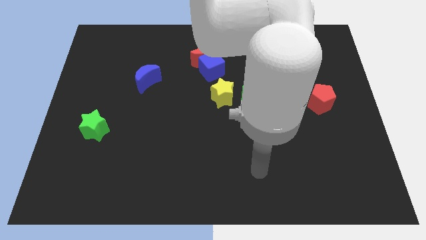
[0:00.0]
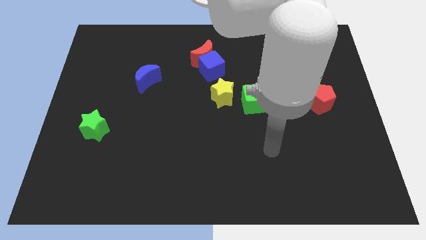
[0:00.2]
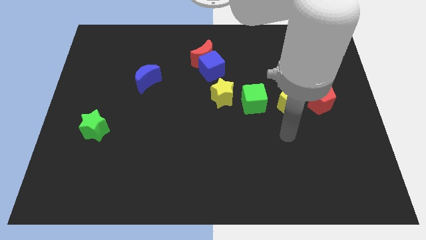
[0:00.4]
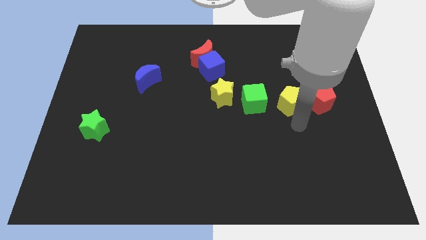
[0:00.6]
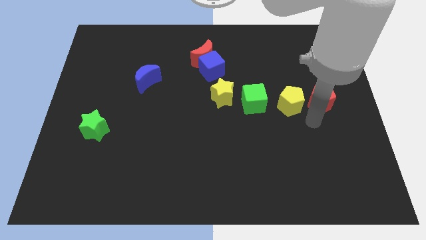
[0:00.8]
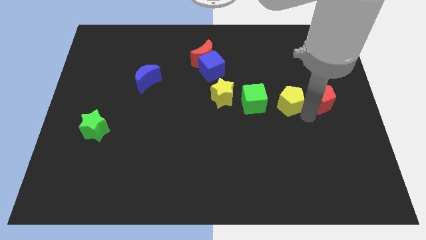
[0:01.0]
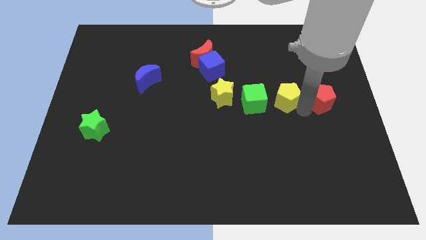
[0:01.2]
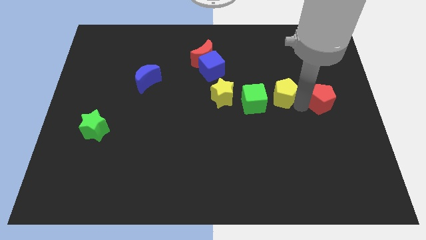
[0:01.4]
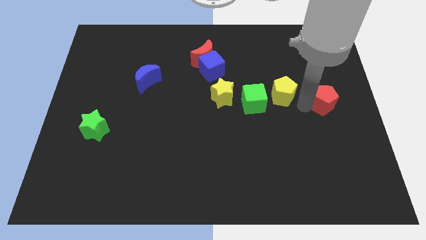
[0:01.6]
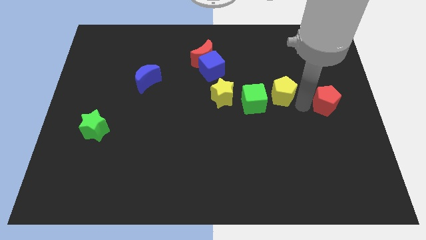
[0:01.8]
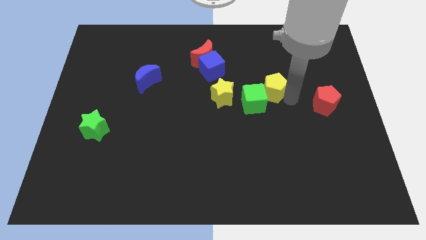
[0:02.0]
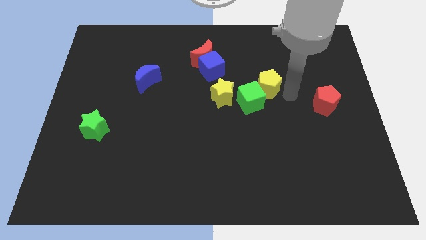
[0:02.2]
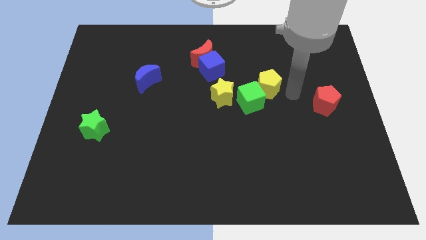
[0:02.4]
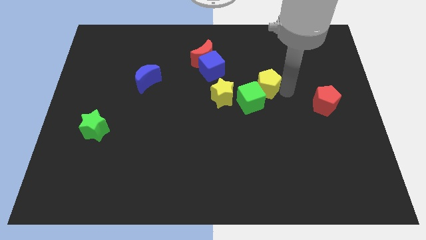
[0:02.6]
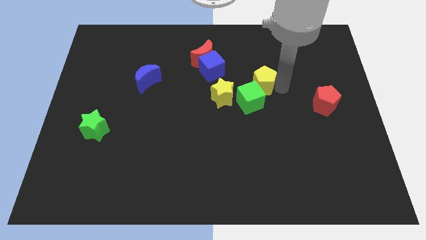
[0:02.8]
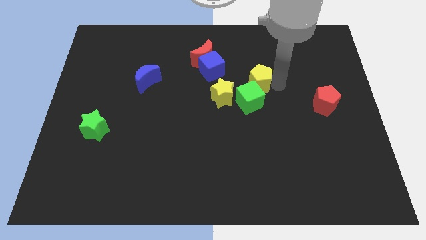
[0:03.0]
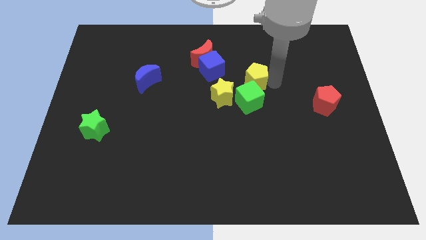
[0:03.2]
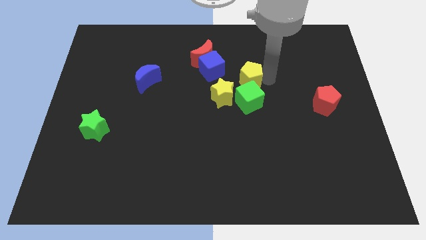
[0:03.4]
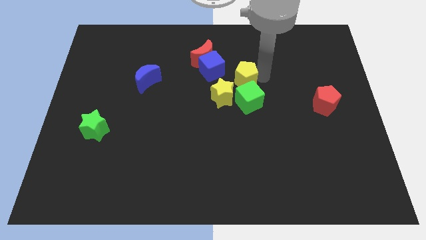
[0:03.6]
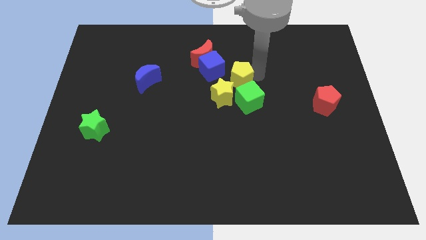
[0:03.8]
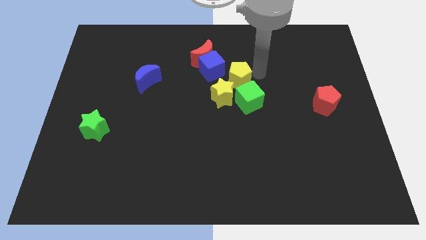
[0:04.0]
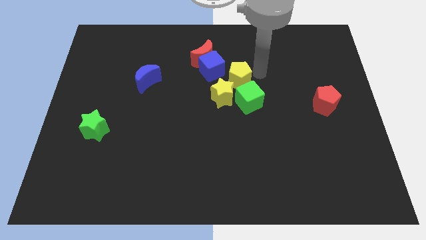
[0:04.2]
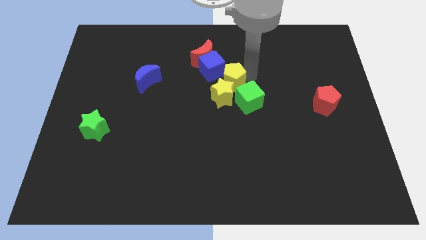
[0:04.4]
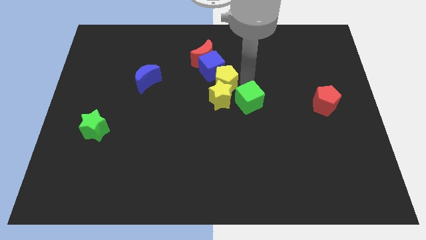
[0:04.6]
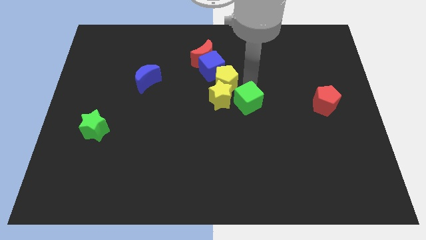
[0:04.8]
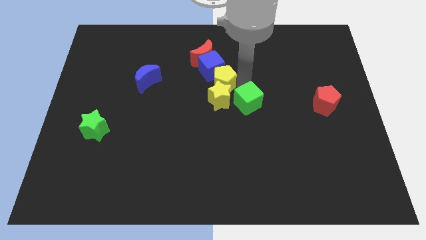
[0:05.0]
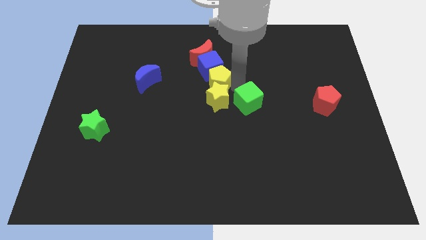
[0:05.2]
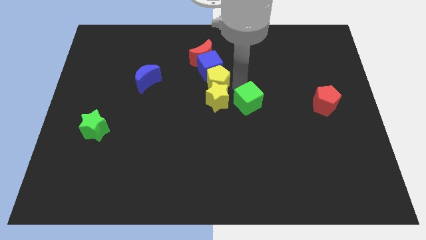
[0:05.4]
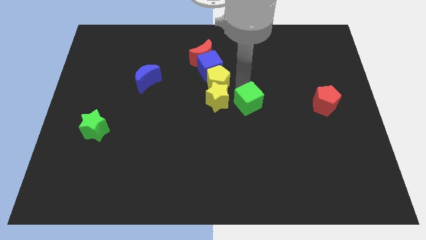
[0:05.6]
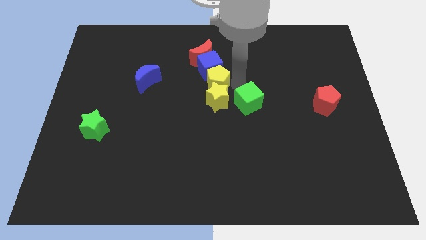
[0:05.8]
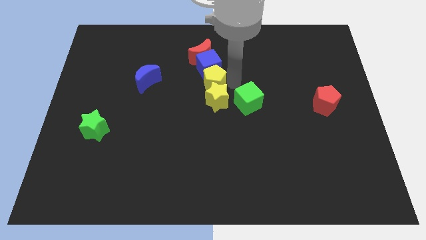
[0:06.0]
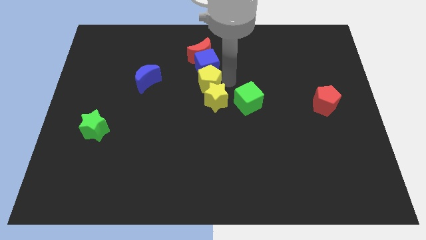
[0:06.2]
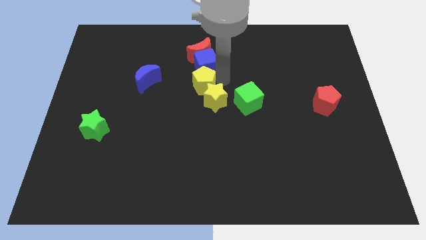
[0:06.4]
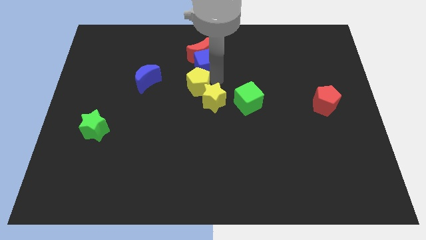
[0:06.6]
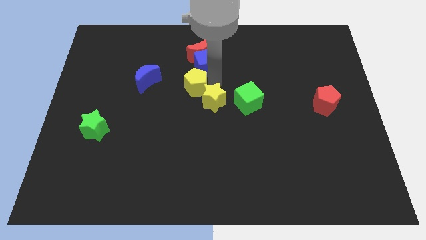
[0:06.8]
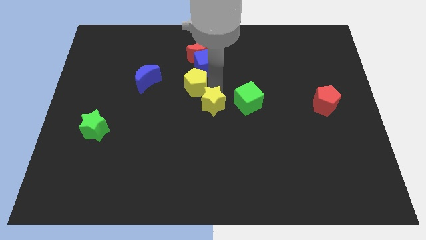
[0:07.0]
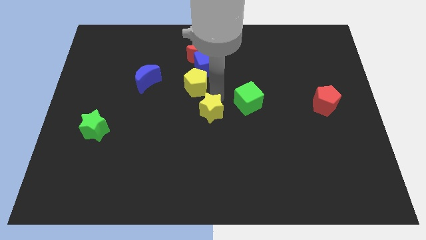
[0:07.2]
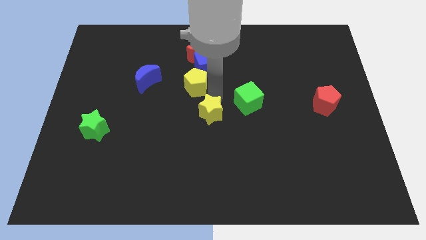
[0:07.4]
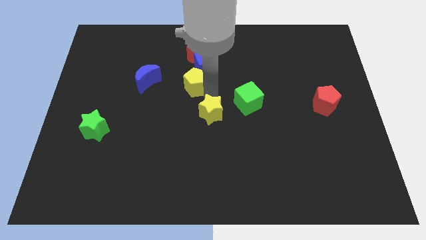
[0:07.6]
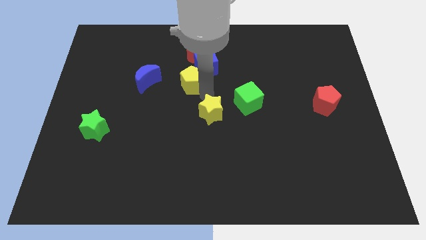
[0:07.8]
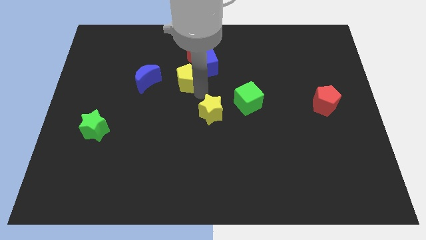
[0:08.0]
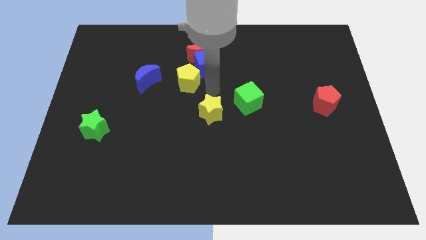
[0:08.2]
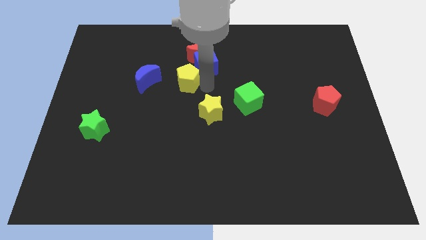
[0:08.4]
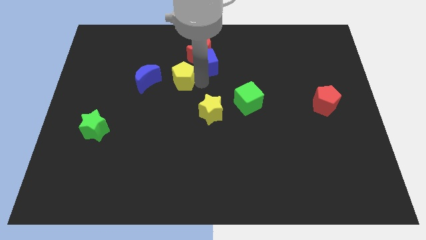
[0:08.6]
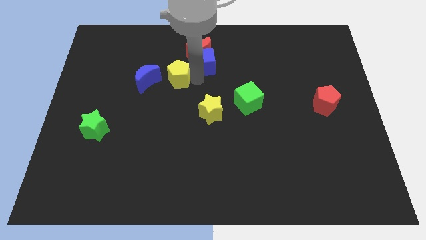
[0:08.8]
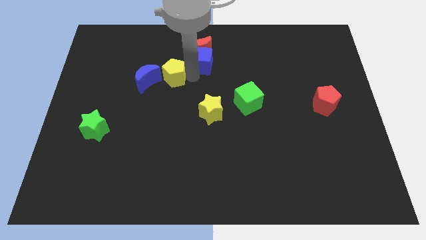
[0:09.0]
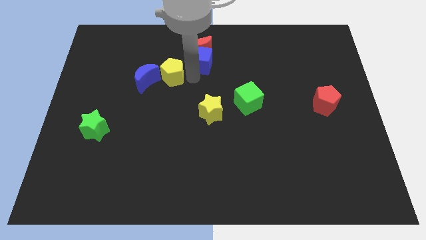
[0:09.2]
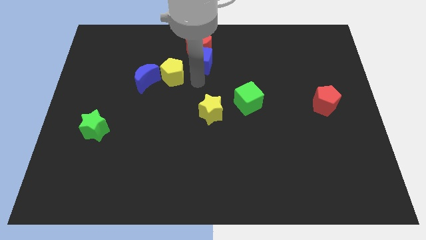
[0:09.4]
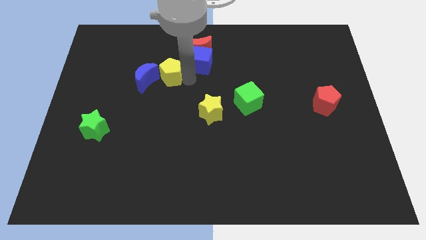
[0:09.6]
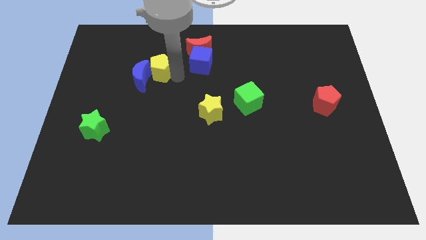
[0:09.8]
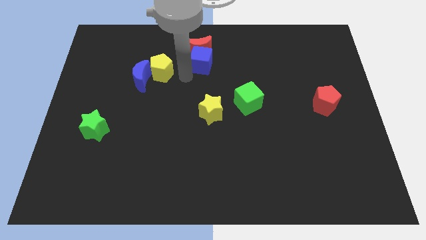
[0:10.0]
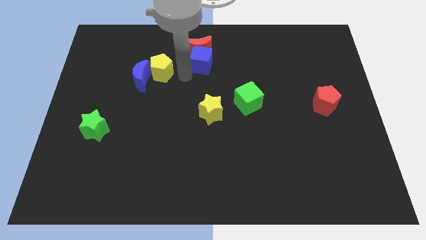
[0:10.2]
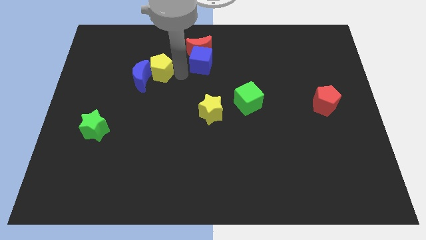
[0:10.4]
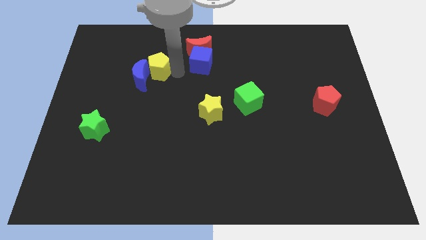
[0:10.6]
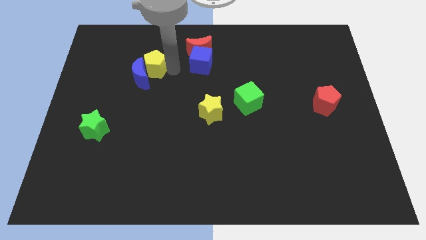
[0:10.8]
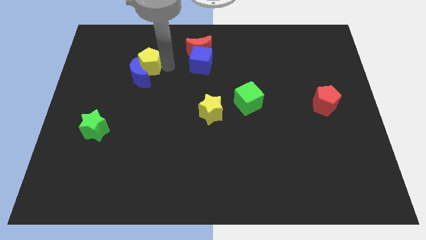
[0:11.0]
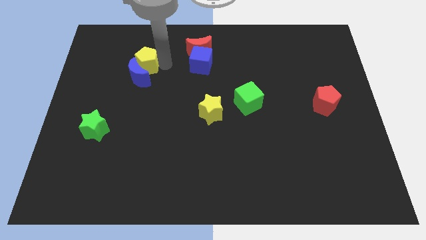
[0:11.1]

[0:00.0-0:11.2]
push the yellow pentagon to the top left of the blue moon

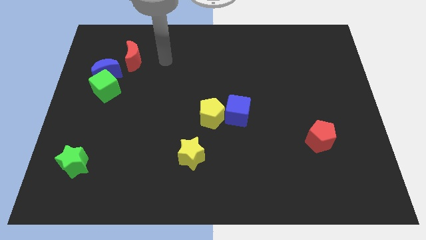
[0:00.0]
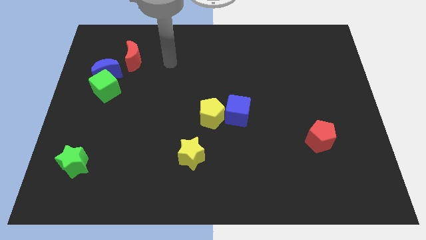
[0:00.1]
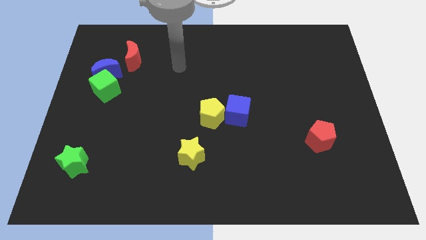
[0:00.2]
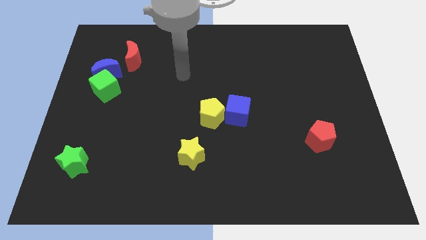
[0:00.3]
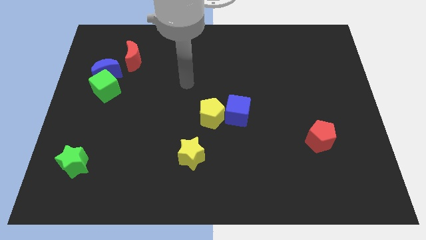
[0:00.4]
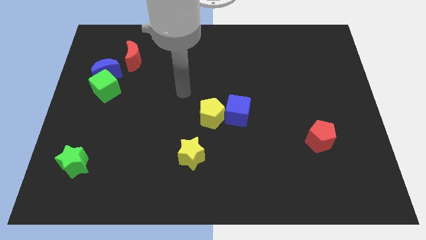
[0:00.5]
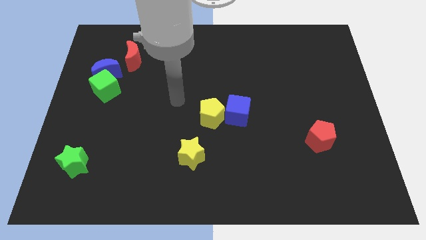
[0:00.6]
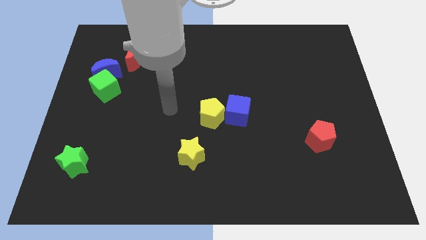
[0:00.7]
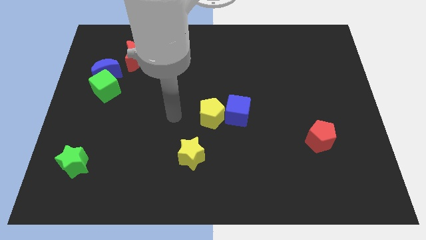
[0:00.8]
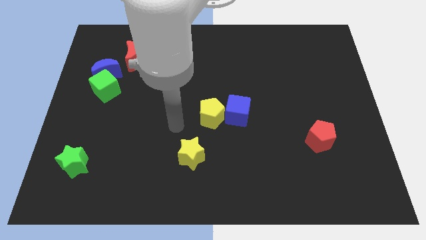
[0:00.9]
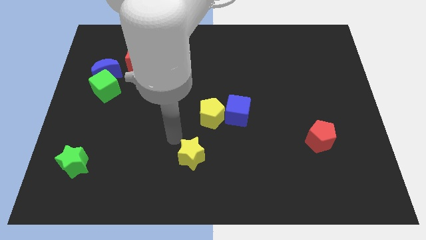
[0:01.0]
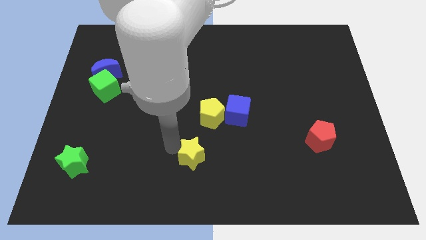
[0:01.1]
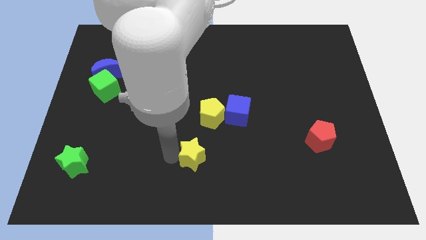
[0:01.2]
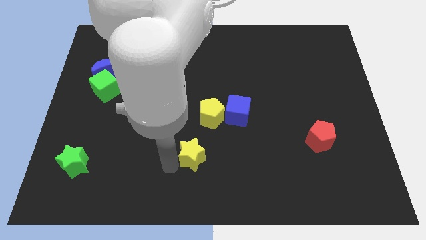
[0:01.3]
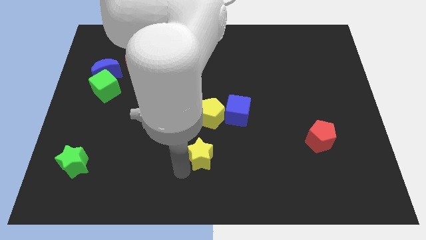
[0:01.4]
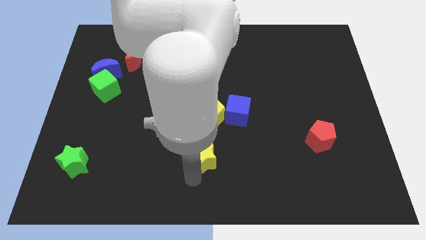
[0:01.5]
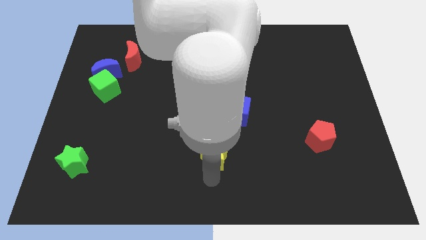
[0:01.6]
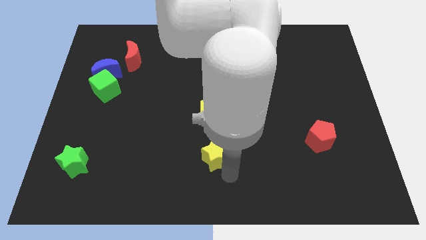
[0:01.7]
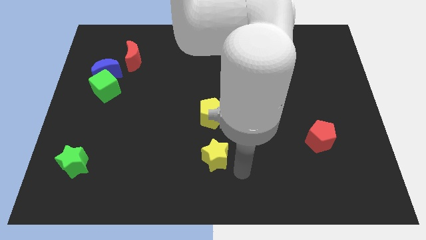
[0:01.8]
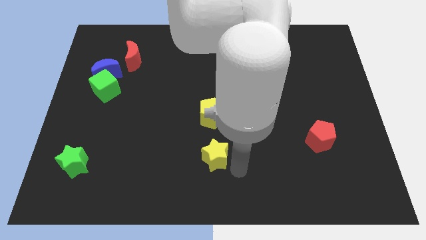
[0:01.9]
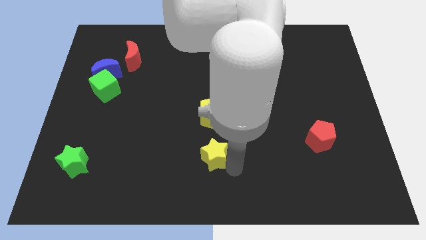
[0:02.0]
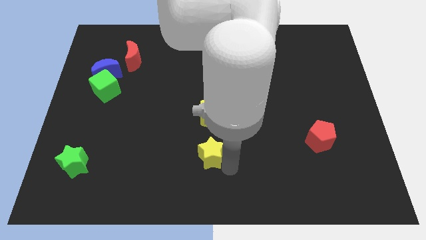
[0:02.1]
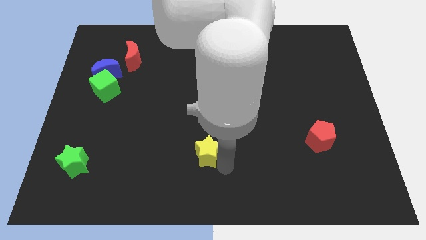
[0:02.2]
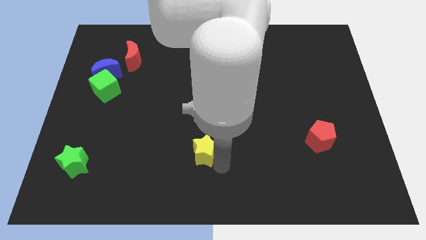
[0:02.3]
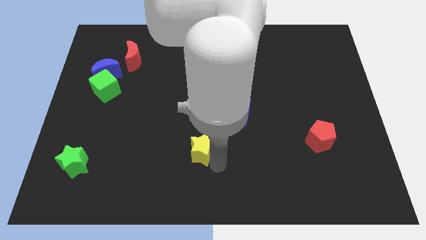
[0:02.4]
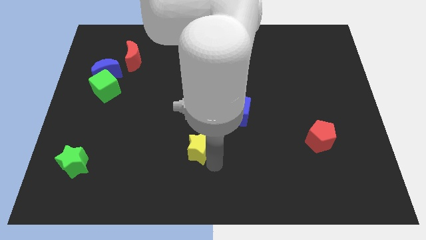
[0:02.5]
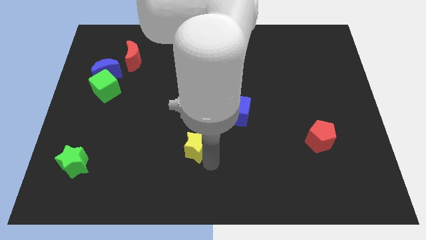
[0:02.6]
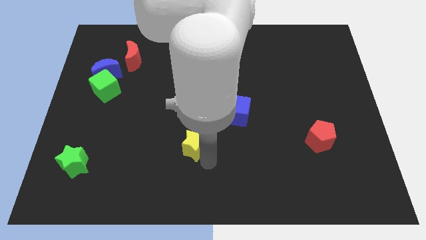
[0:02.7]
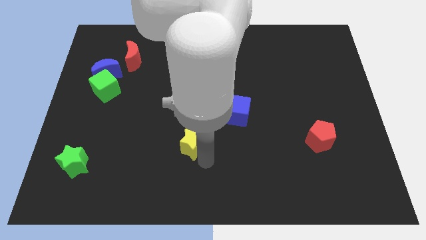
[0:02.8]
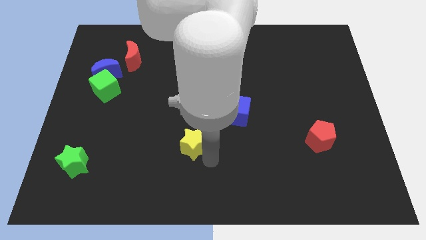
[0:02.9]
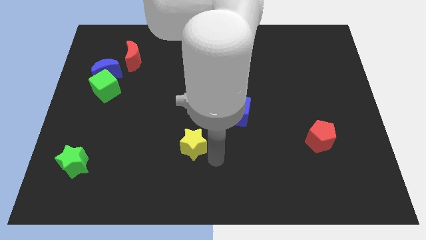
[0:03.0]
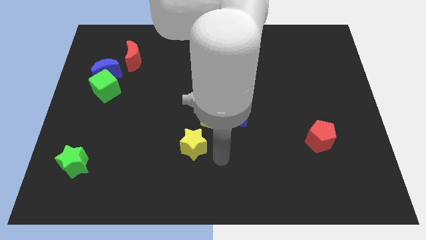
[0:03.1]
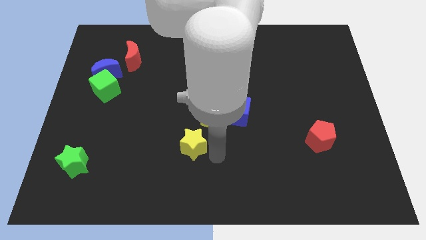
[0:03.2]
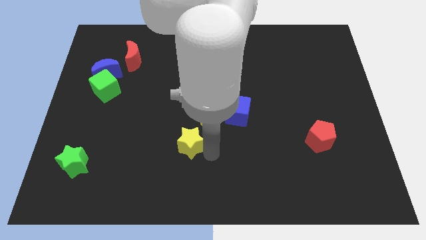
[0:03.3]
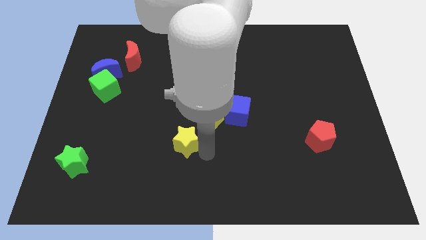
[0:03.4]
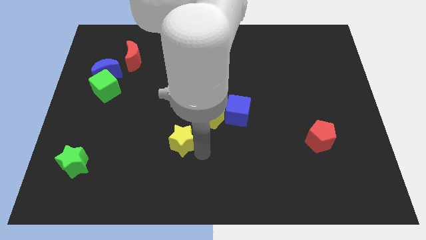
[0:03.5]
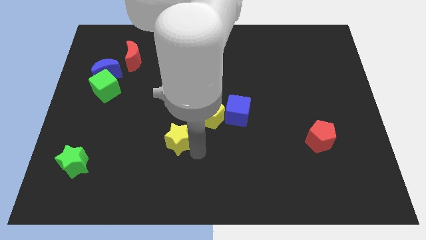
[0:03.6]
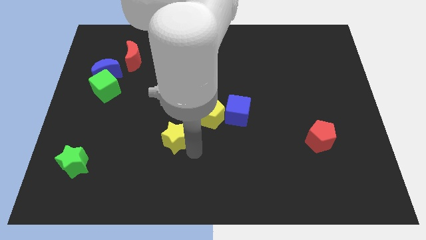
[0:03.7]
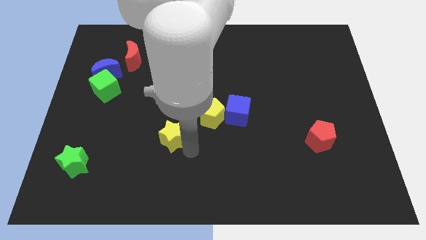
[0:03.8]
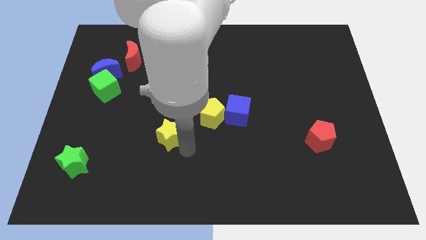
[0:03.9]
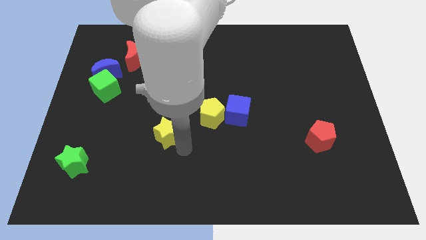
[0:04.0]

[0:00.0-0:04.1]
put the yellow star to the left side of the yellow pentagon
